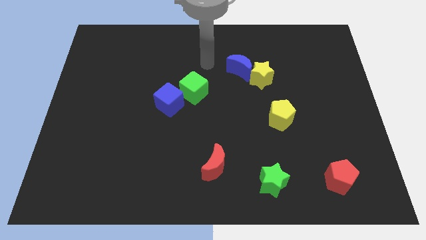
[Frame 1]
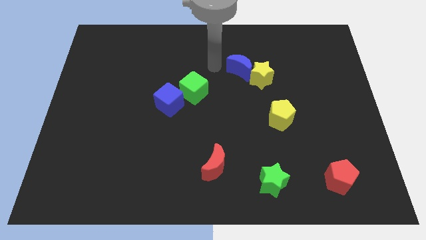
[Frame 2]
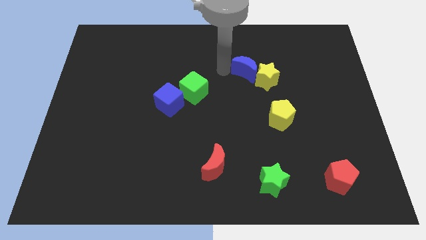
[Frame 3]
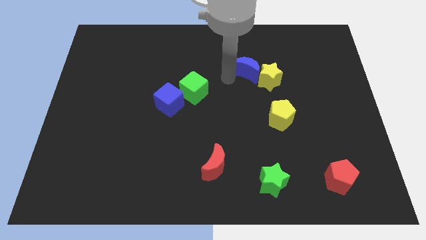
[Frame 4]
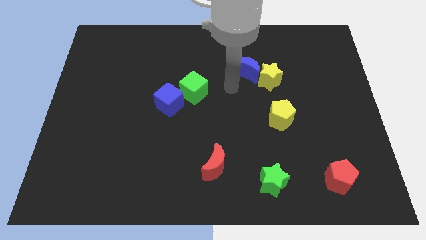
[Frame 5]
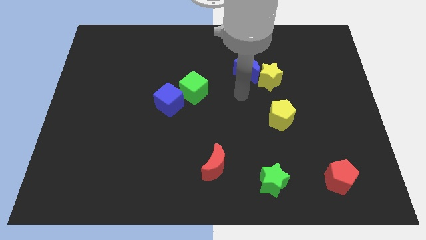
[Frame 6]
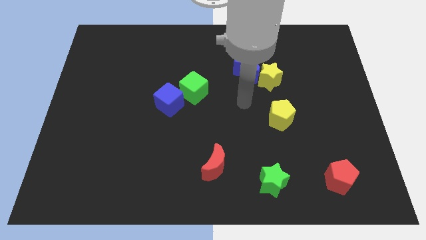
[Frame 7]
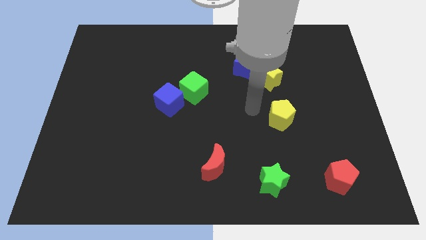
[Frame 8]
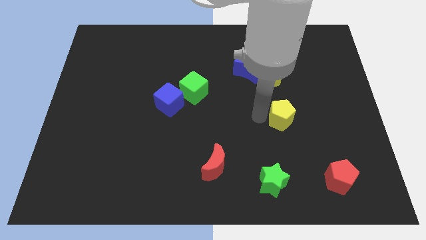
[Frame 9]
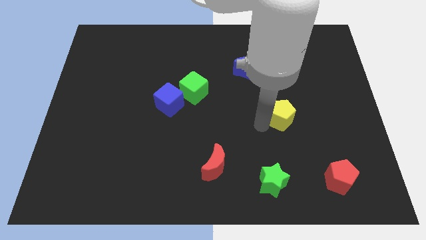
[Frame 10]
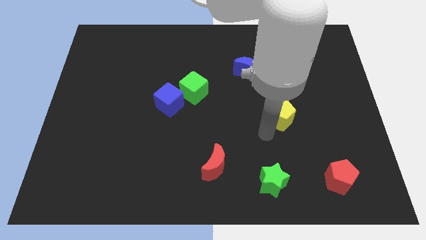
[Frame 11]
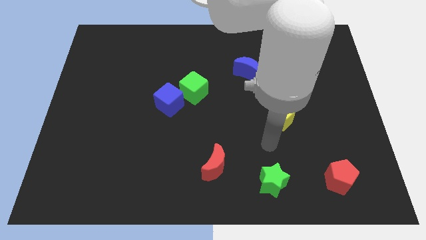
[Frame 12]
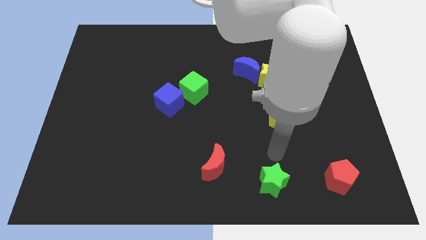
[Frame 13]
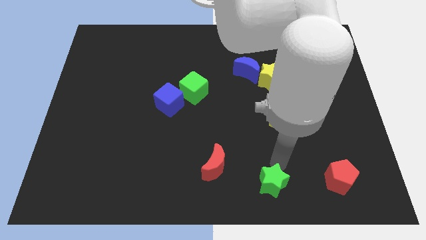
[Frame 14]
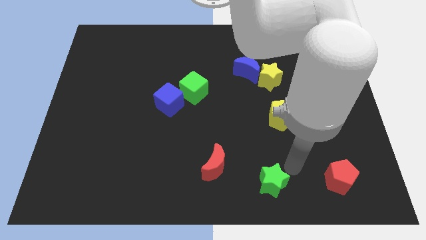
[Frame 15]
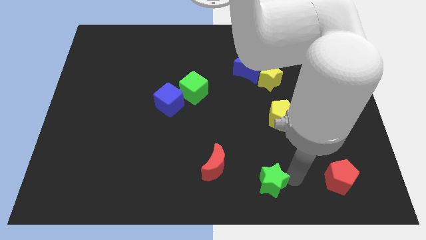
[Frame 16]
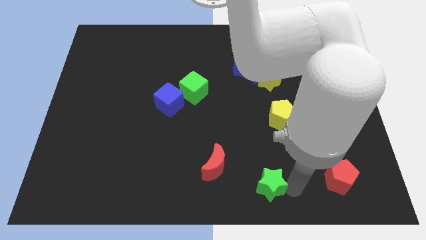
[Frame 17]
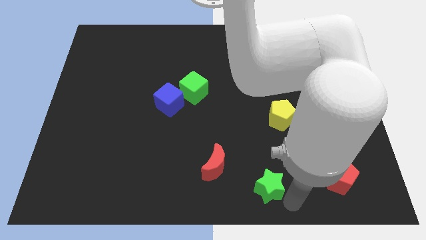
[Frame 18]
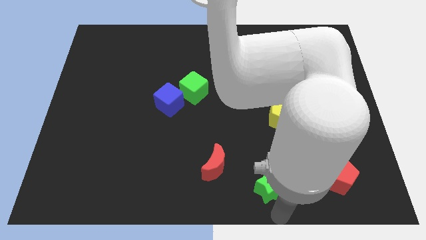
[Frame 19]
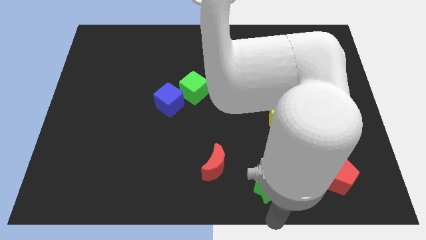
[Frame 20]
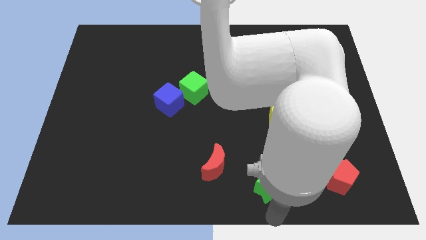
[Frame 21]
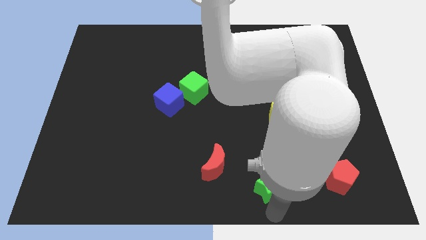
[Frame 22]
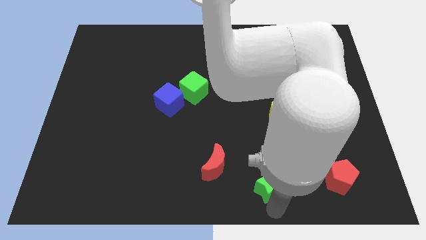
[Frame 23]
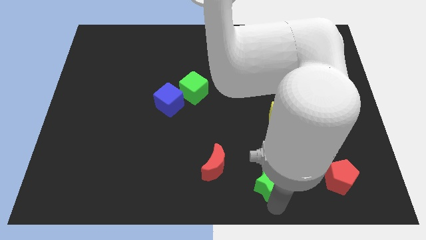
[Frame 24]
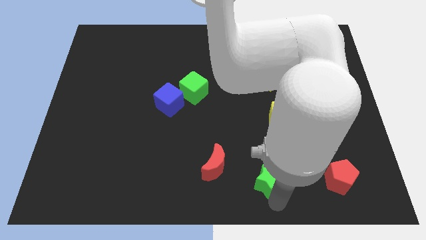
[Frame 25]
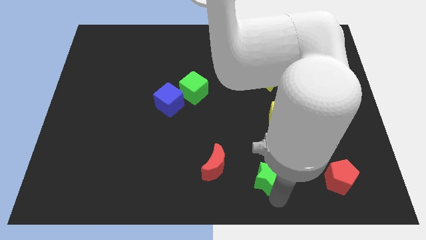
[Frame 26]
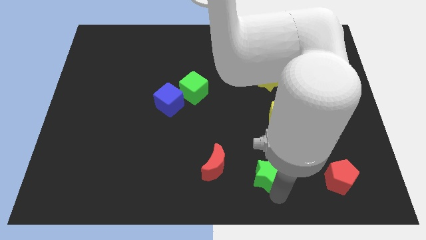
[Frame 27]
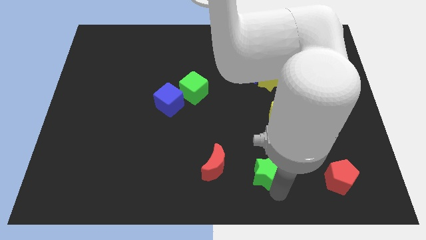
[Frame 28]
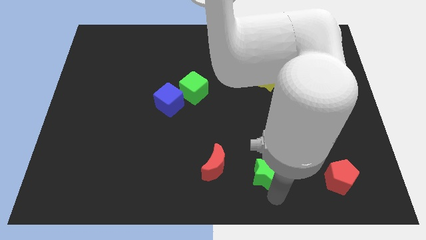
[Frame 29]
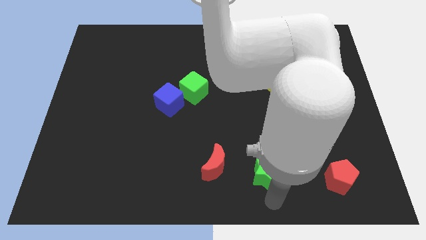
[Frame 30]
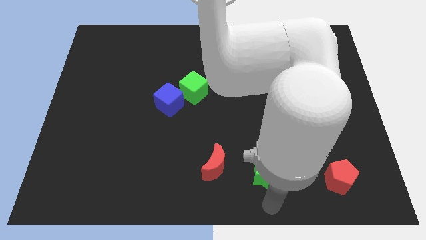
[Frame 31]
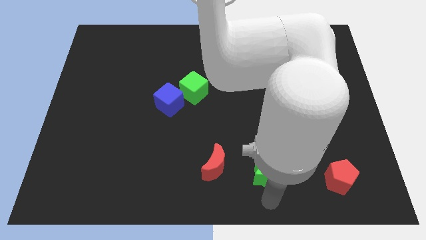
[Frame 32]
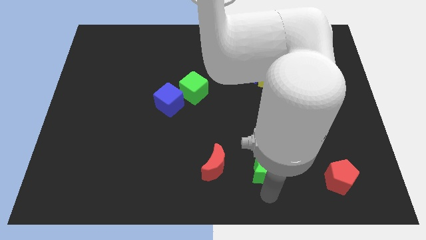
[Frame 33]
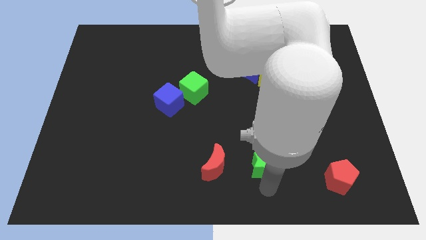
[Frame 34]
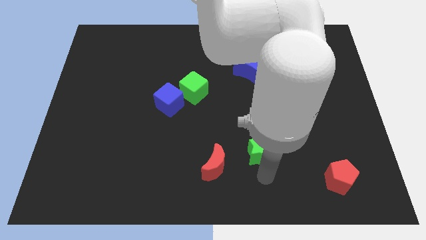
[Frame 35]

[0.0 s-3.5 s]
slightly push the green star up

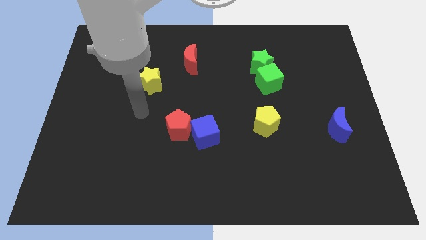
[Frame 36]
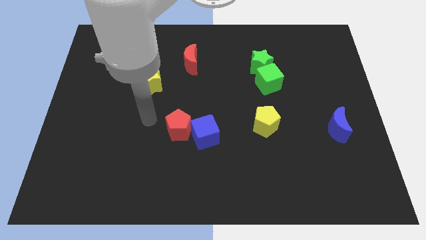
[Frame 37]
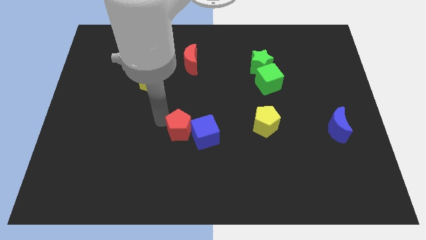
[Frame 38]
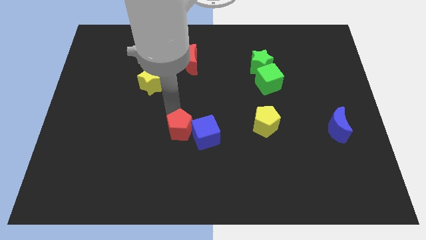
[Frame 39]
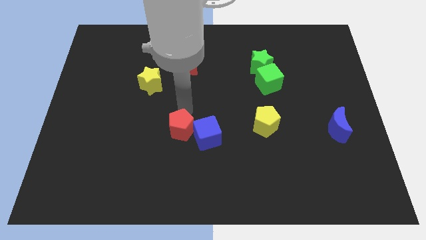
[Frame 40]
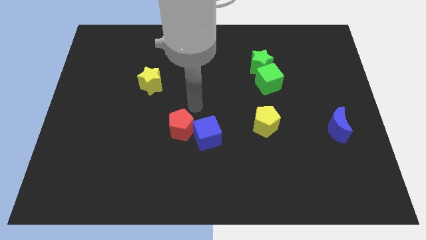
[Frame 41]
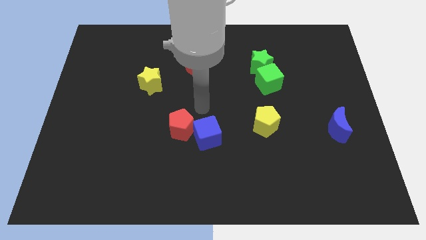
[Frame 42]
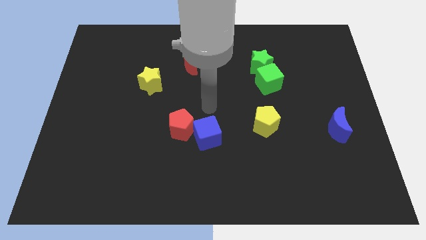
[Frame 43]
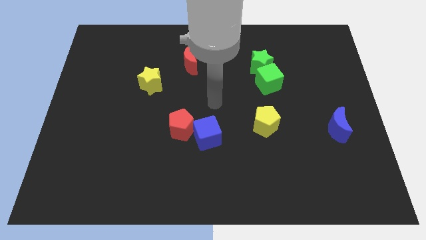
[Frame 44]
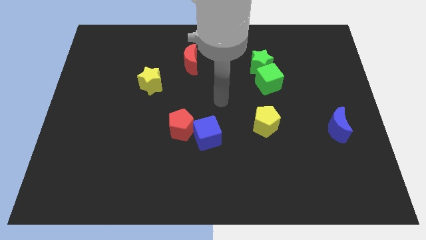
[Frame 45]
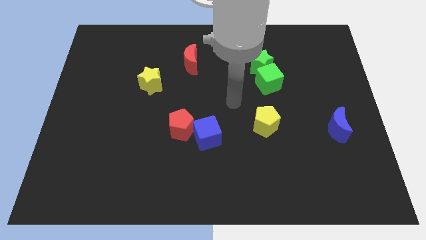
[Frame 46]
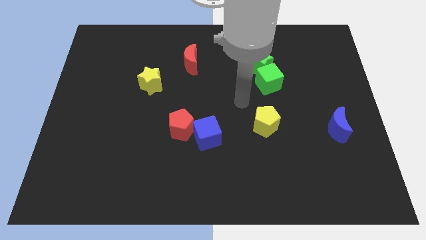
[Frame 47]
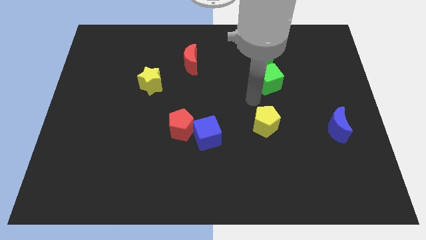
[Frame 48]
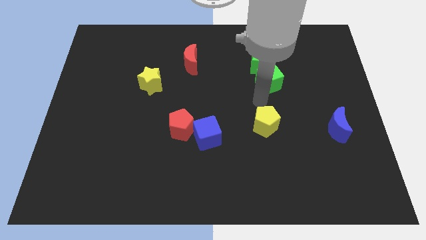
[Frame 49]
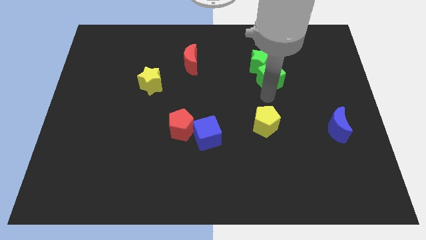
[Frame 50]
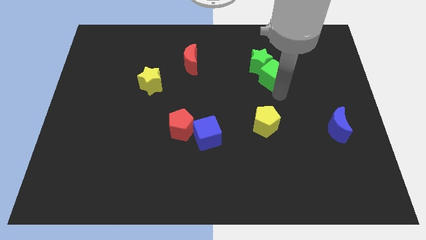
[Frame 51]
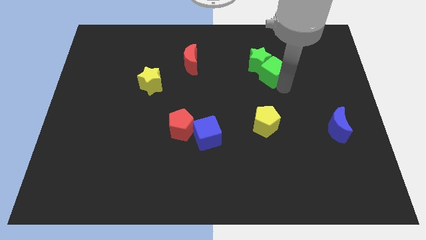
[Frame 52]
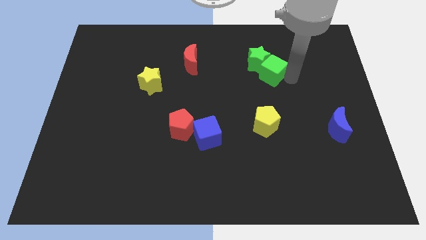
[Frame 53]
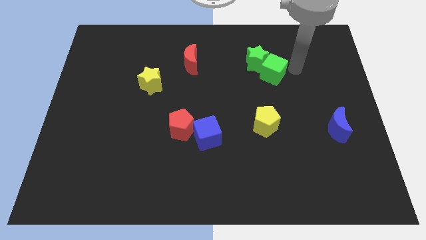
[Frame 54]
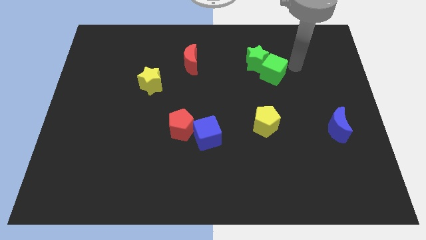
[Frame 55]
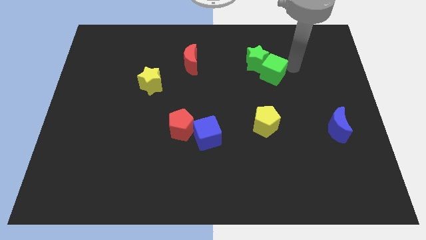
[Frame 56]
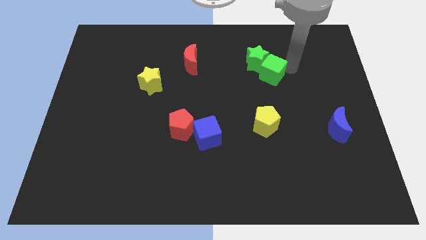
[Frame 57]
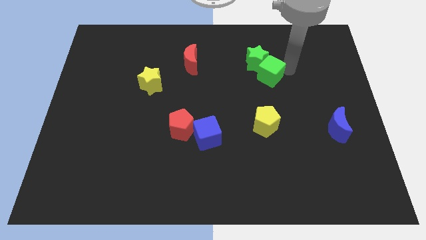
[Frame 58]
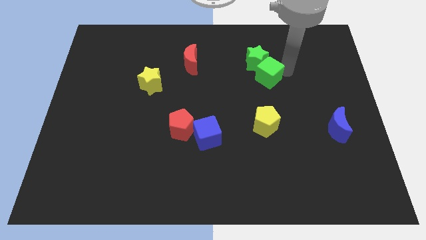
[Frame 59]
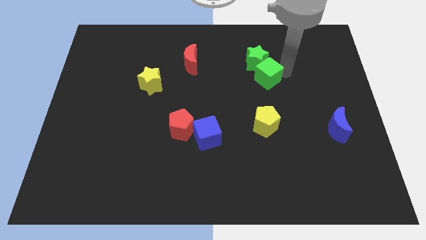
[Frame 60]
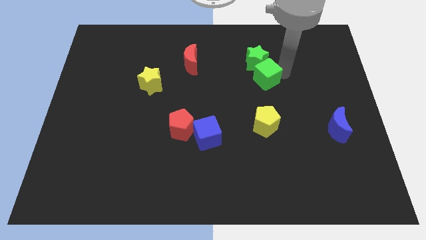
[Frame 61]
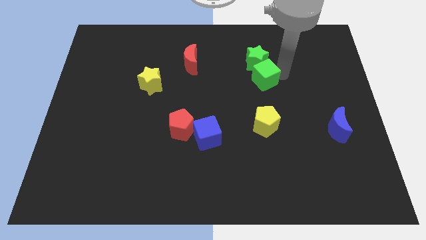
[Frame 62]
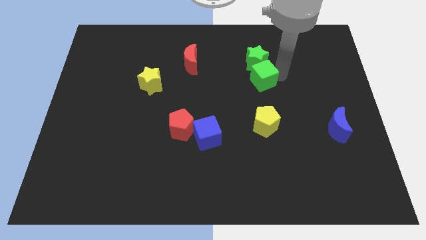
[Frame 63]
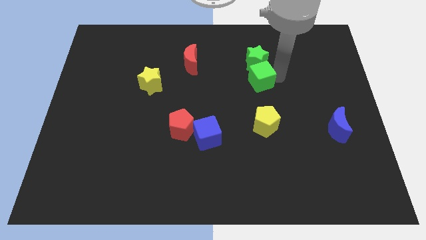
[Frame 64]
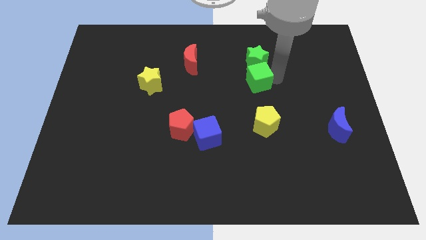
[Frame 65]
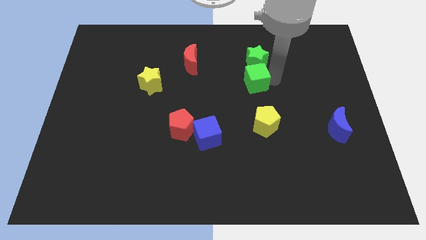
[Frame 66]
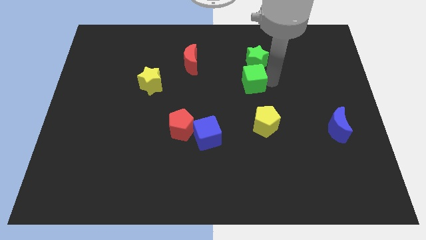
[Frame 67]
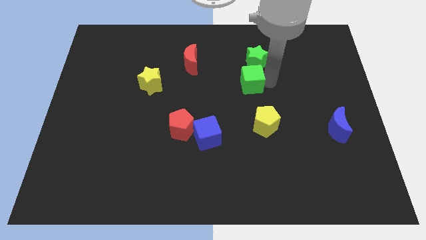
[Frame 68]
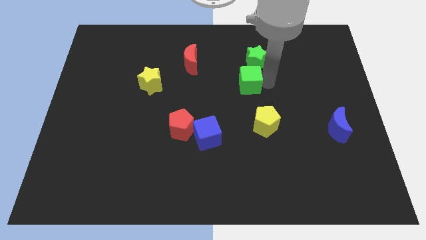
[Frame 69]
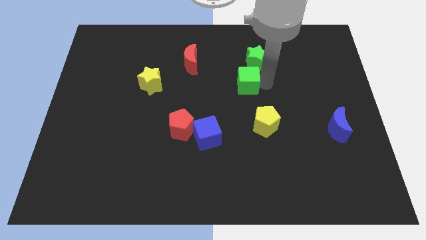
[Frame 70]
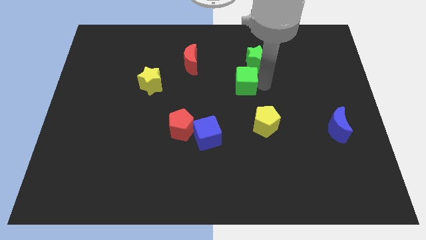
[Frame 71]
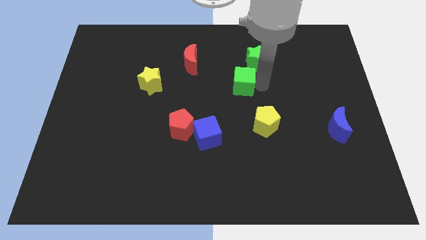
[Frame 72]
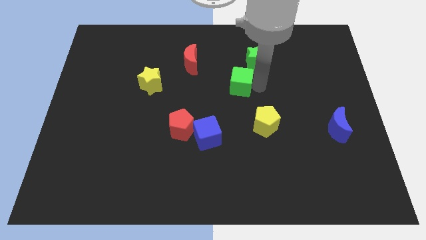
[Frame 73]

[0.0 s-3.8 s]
slide the green cube a bit left

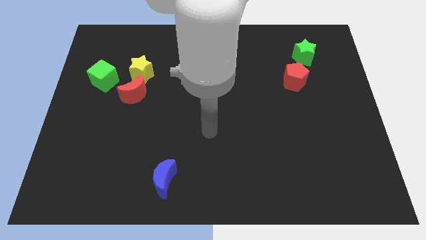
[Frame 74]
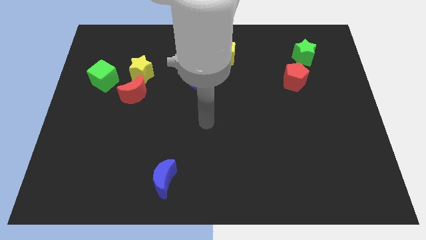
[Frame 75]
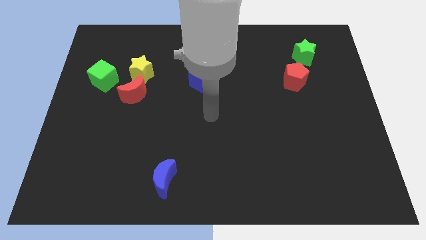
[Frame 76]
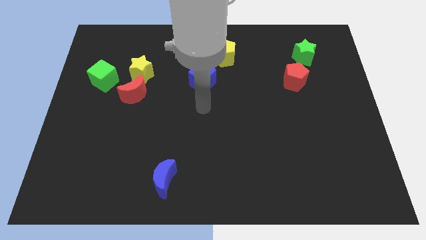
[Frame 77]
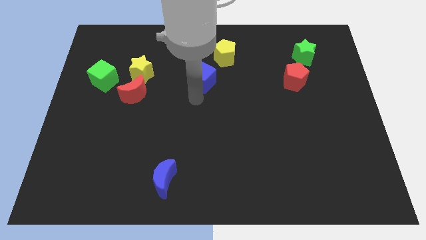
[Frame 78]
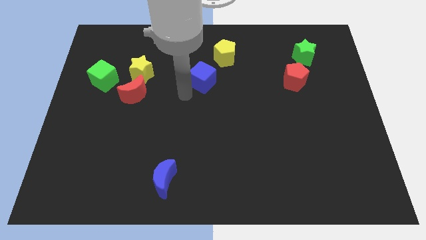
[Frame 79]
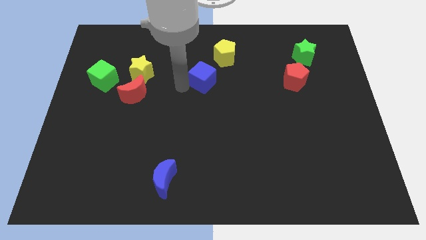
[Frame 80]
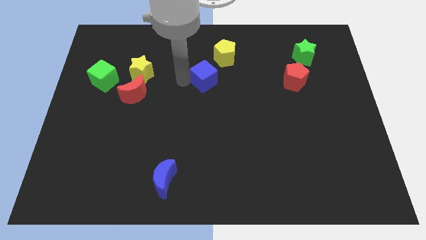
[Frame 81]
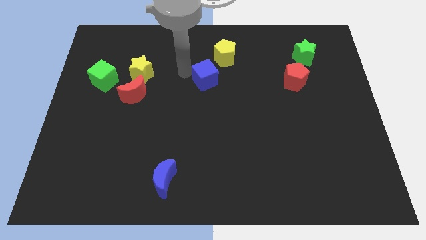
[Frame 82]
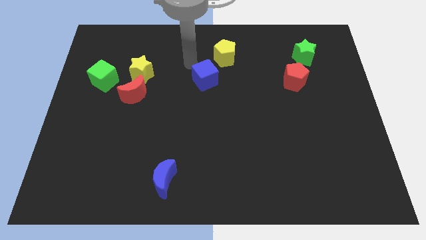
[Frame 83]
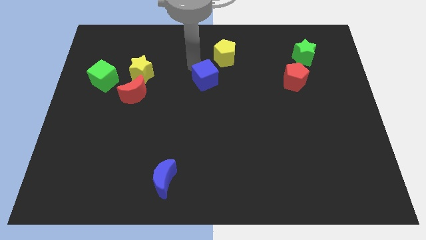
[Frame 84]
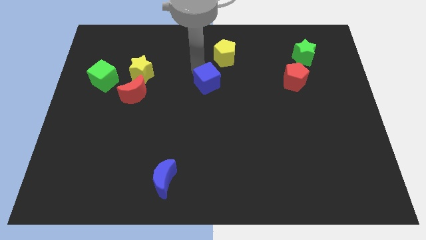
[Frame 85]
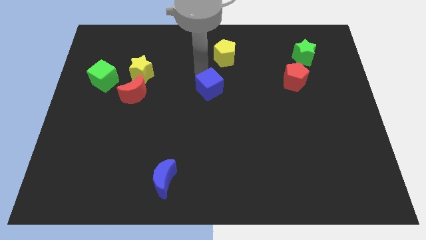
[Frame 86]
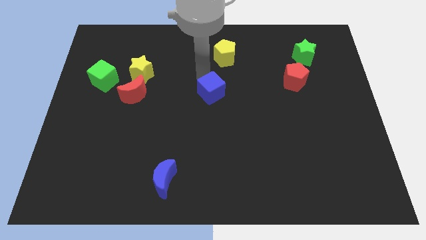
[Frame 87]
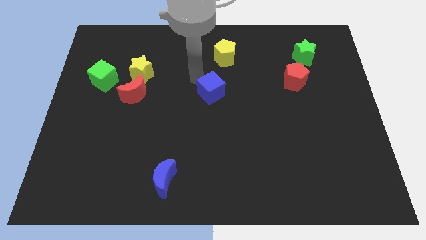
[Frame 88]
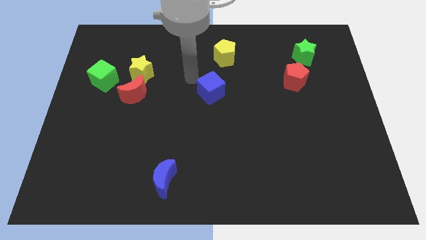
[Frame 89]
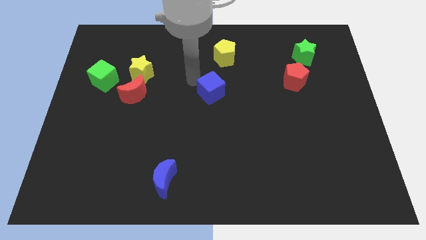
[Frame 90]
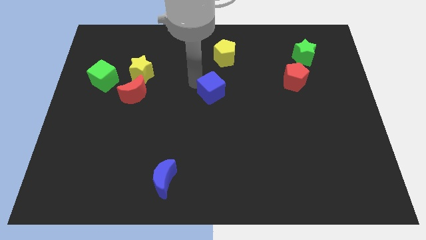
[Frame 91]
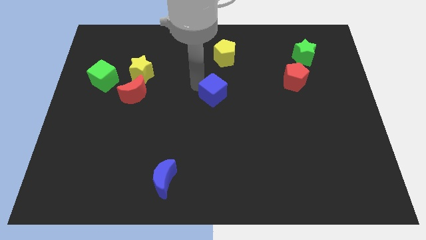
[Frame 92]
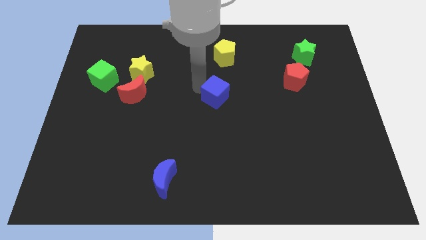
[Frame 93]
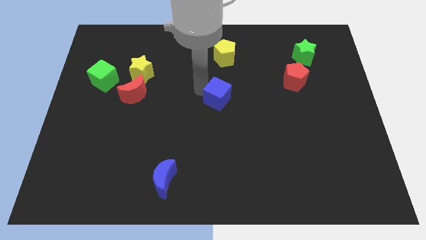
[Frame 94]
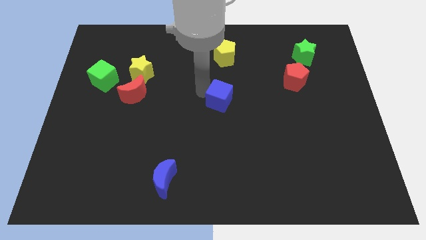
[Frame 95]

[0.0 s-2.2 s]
move the blue cube slightly downwards and then to the right
